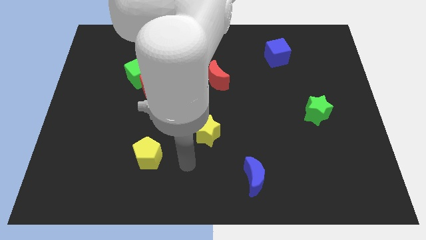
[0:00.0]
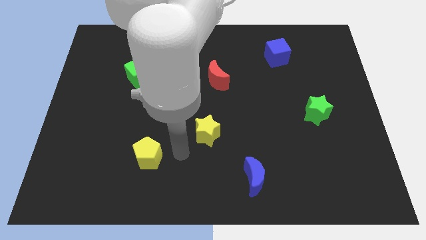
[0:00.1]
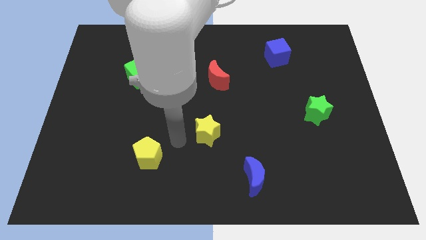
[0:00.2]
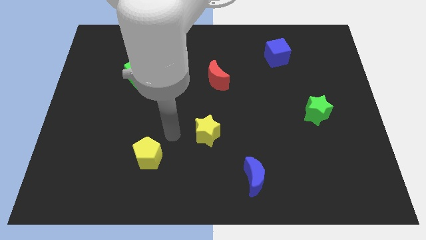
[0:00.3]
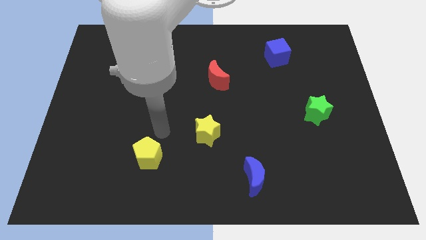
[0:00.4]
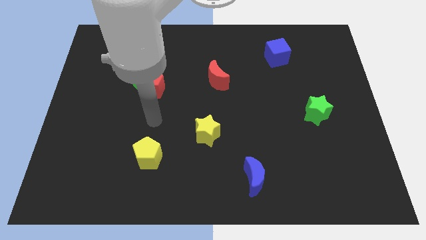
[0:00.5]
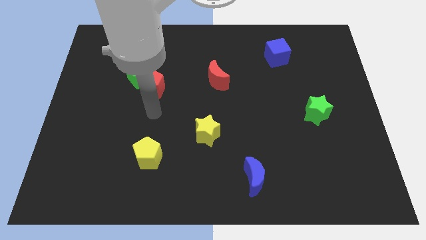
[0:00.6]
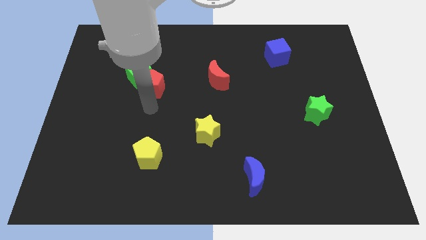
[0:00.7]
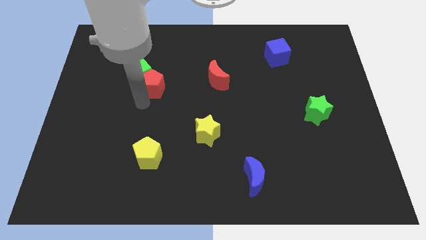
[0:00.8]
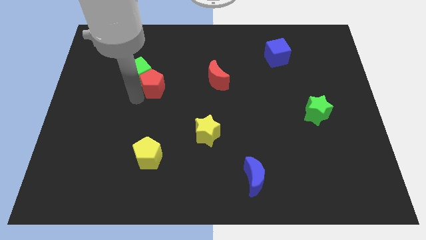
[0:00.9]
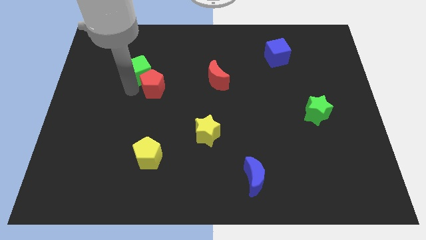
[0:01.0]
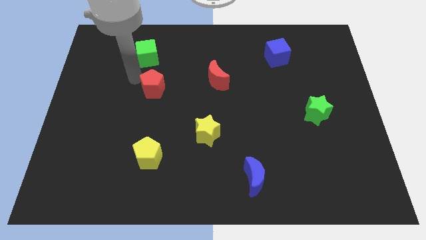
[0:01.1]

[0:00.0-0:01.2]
separate the red pentagon from the green cube

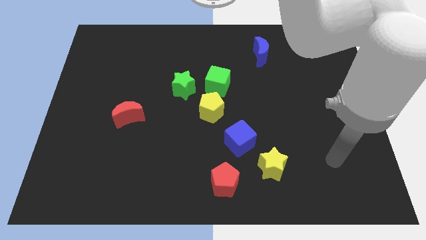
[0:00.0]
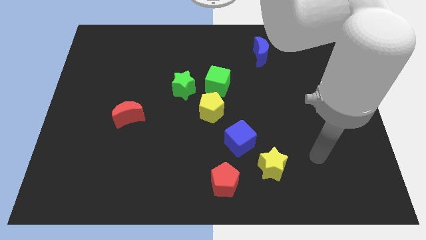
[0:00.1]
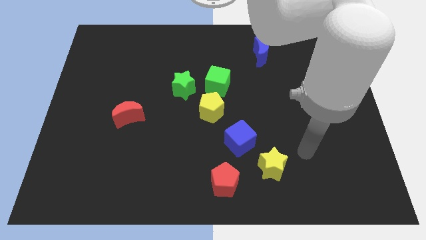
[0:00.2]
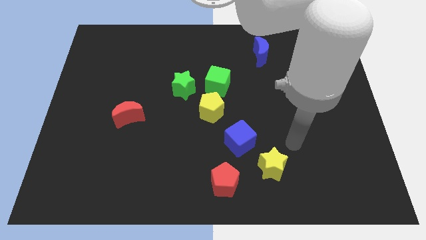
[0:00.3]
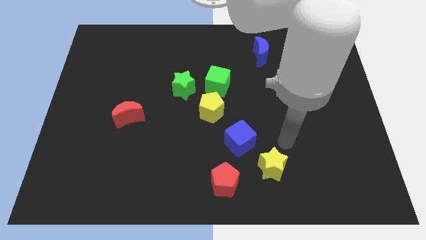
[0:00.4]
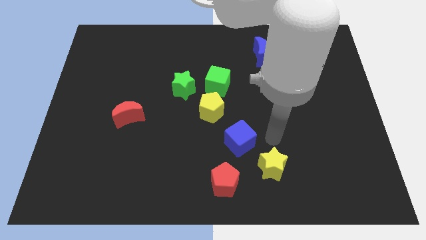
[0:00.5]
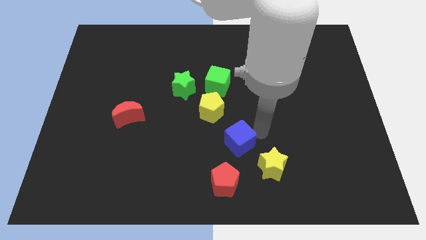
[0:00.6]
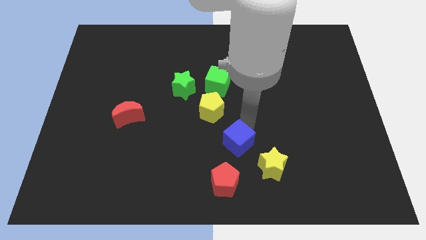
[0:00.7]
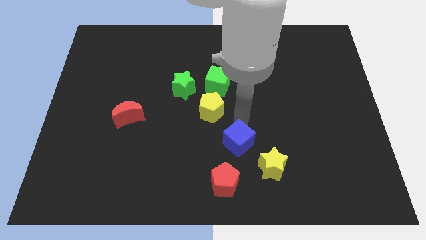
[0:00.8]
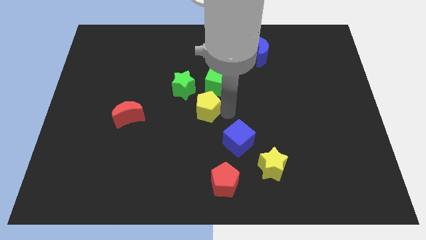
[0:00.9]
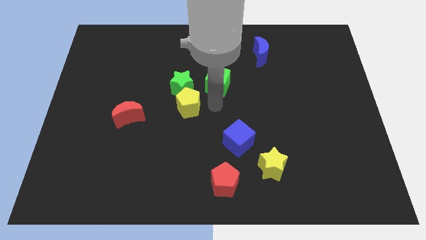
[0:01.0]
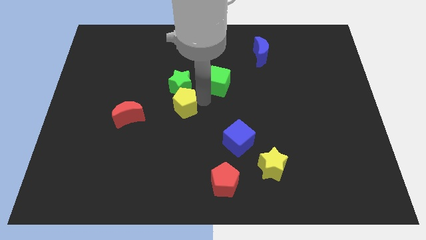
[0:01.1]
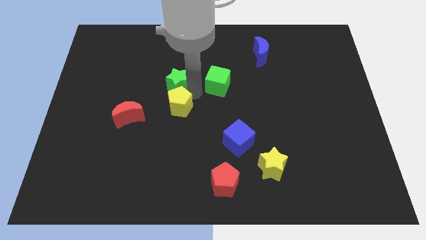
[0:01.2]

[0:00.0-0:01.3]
separate the green cube from the green star and yellow pentagon

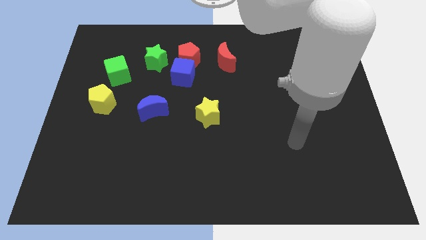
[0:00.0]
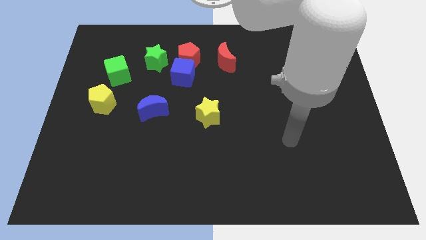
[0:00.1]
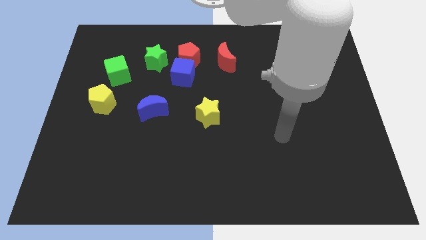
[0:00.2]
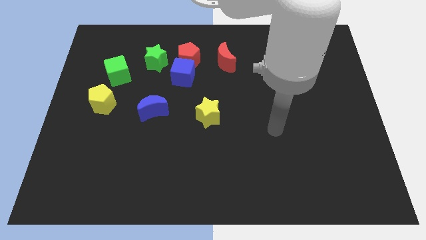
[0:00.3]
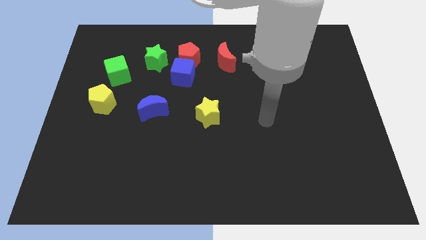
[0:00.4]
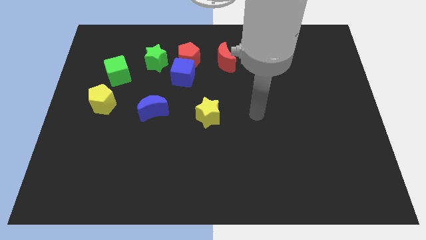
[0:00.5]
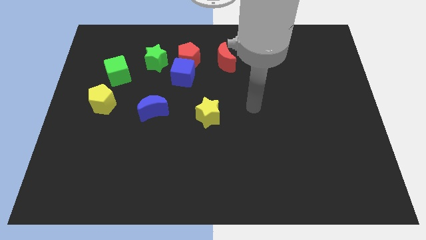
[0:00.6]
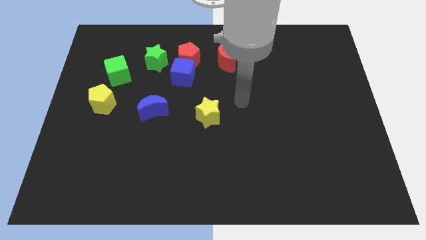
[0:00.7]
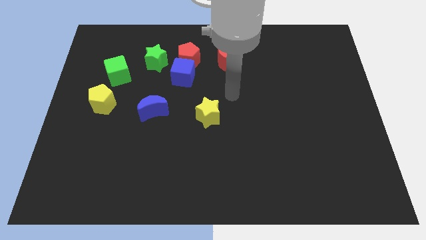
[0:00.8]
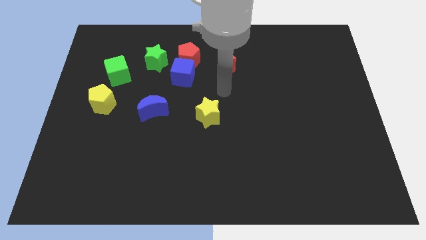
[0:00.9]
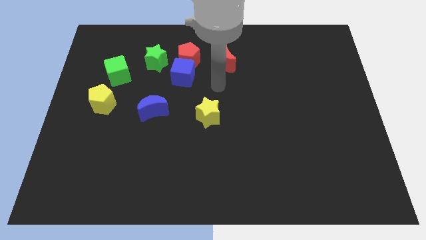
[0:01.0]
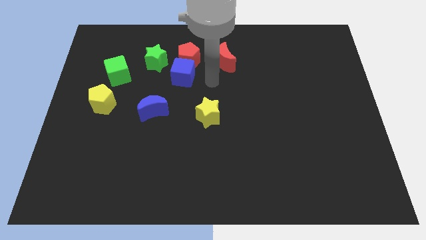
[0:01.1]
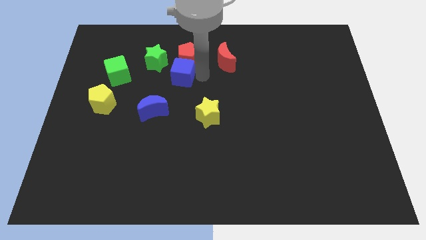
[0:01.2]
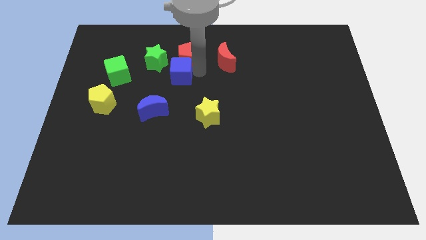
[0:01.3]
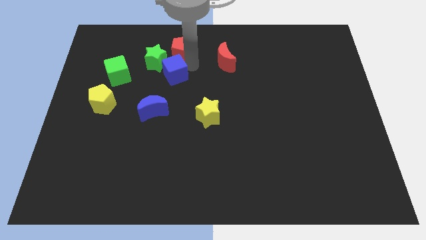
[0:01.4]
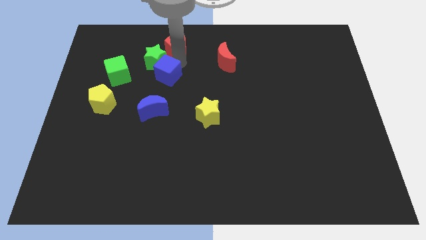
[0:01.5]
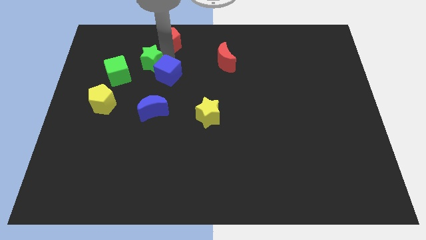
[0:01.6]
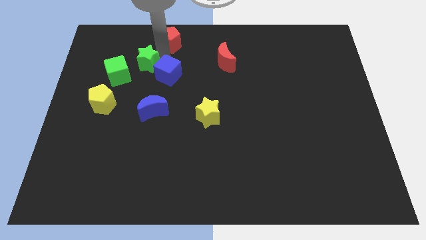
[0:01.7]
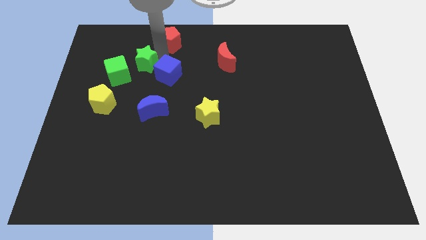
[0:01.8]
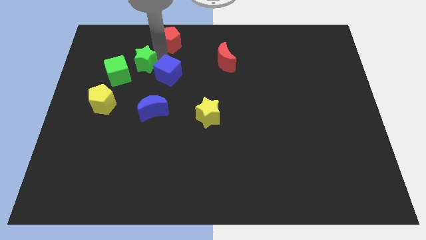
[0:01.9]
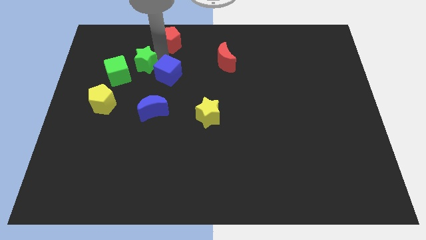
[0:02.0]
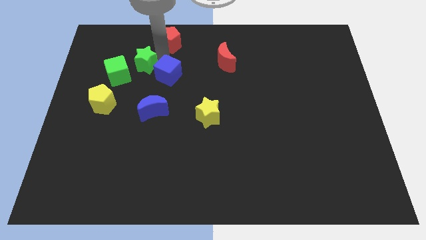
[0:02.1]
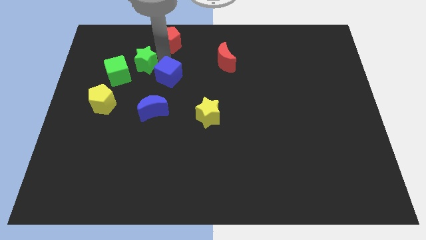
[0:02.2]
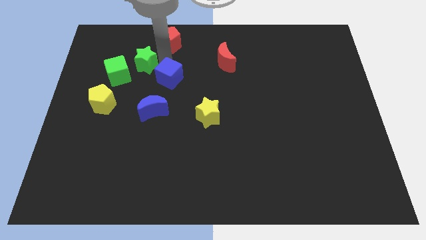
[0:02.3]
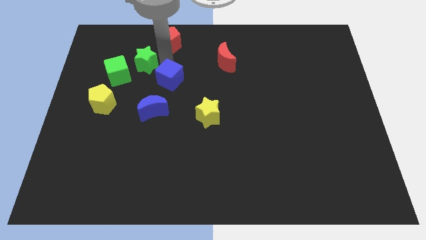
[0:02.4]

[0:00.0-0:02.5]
pull the blue cube apart from the red pentagon and green star

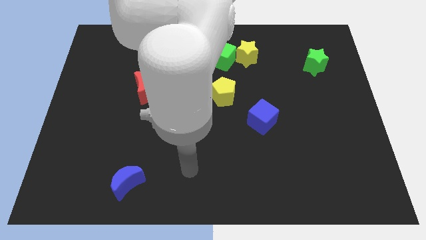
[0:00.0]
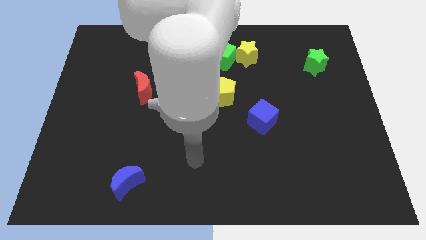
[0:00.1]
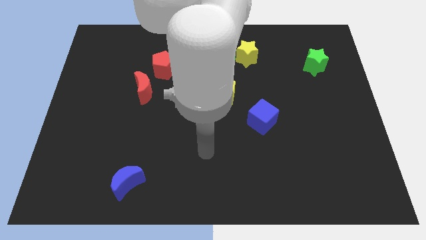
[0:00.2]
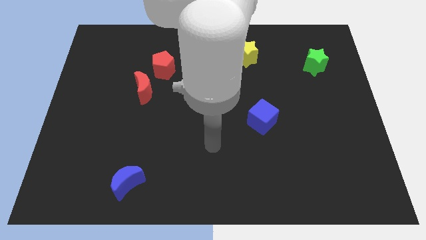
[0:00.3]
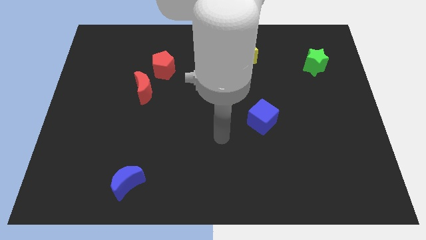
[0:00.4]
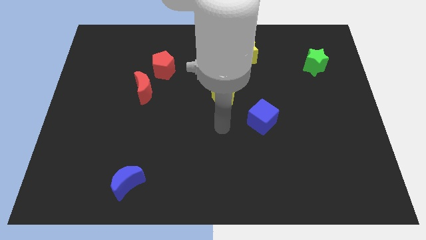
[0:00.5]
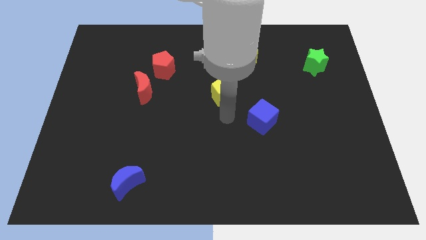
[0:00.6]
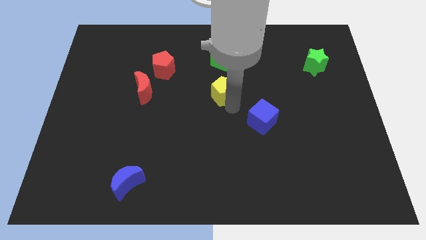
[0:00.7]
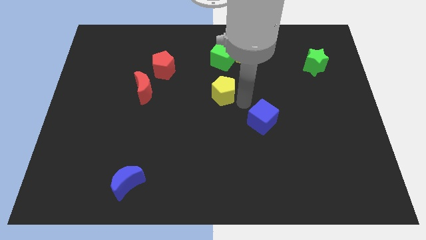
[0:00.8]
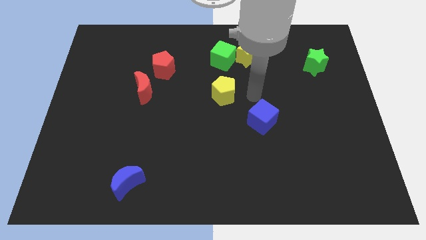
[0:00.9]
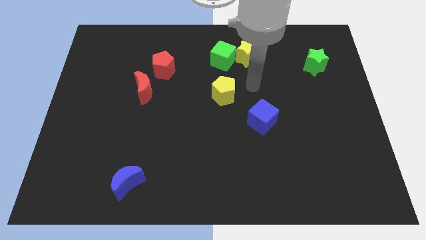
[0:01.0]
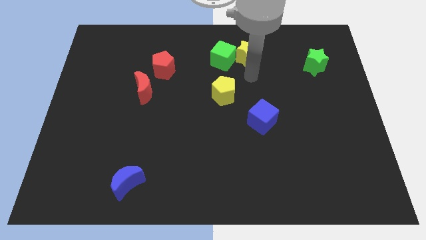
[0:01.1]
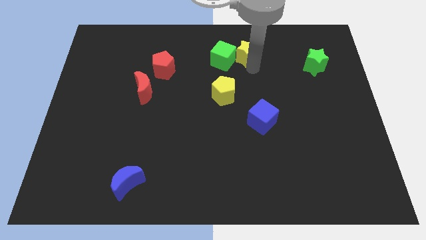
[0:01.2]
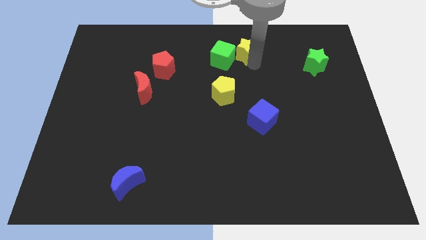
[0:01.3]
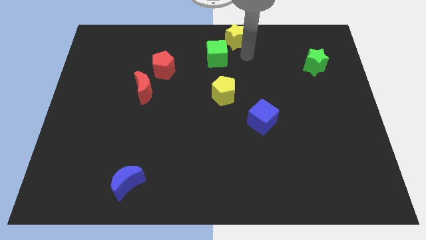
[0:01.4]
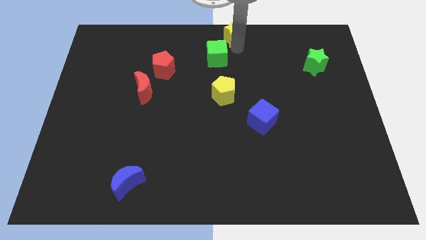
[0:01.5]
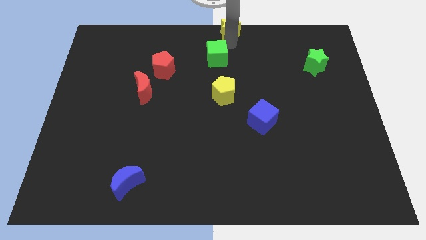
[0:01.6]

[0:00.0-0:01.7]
pull the green cube apart from the yellow star

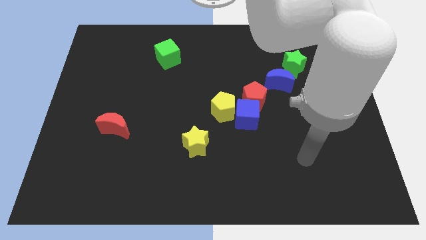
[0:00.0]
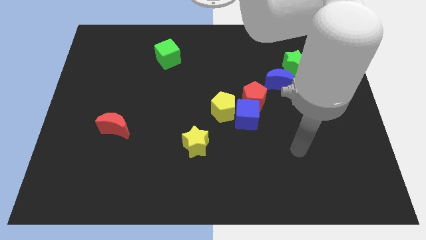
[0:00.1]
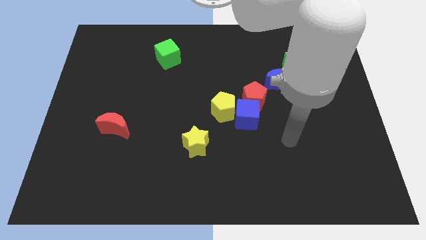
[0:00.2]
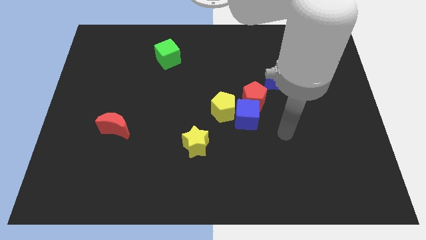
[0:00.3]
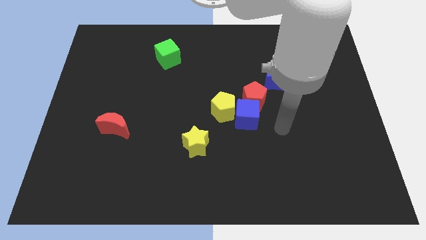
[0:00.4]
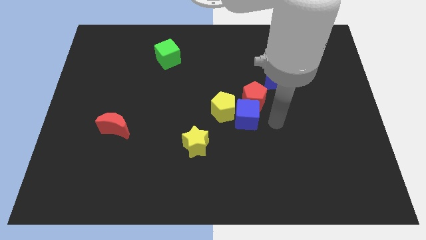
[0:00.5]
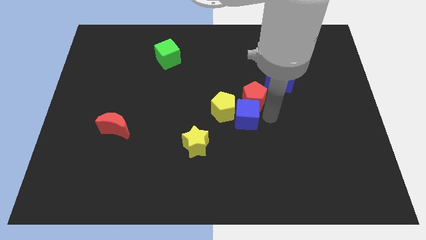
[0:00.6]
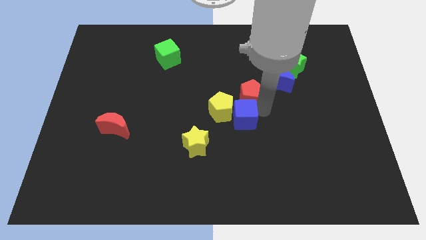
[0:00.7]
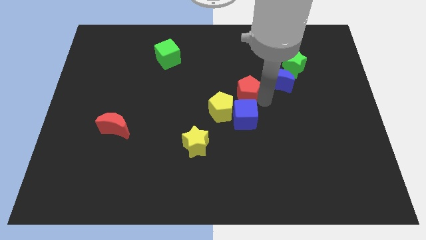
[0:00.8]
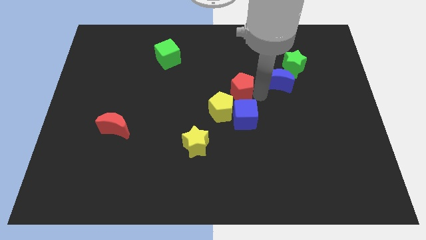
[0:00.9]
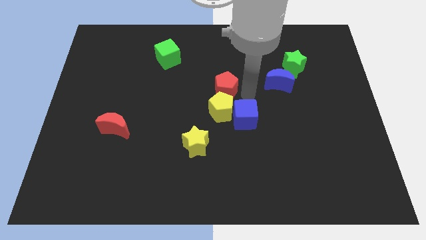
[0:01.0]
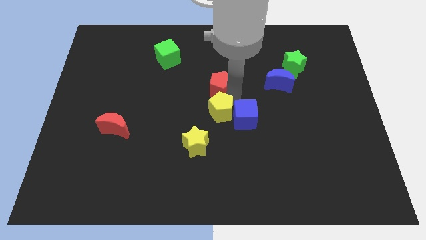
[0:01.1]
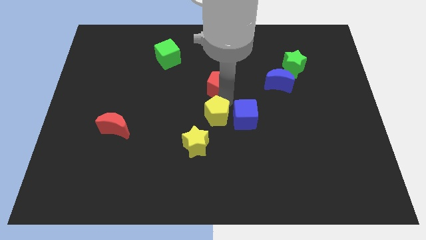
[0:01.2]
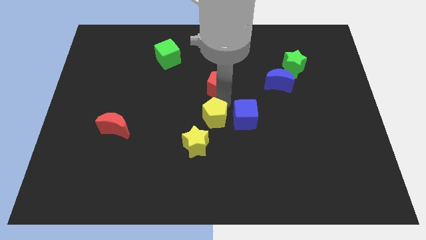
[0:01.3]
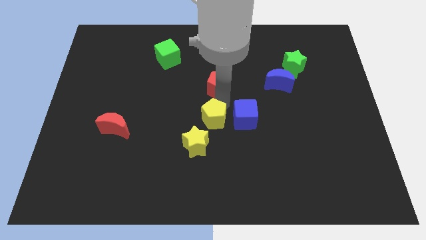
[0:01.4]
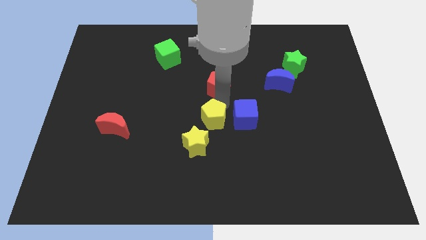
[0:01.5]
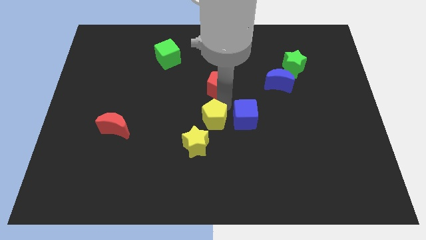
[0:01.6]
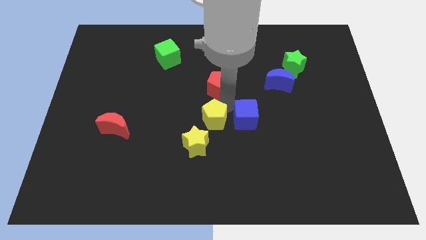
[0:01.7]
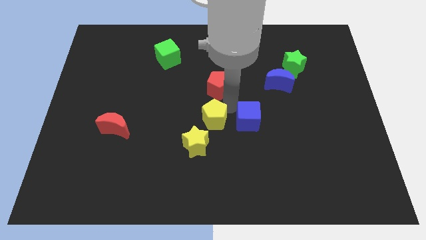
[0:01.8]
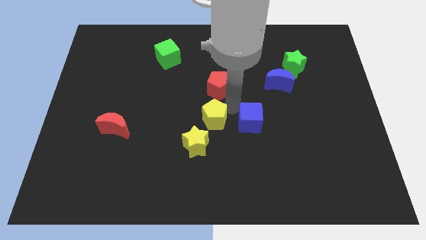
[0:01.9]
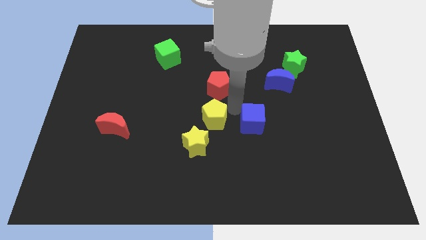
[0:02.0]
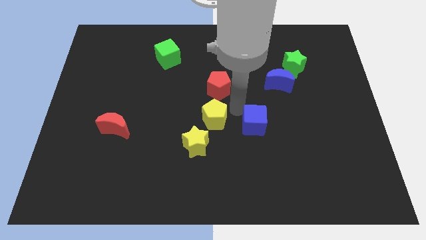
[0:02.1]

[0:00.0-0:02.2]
move the blue cube away from the red pentagon and yellow pentagon

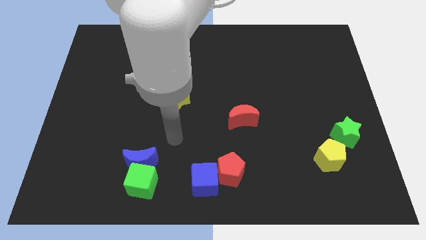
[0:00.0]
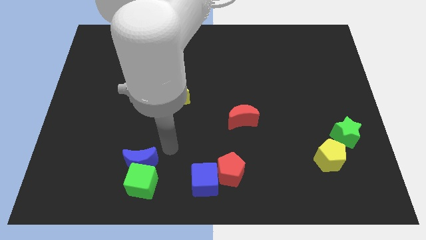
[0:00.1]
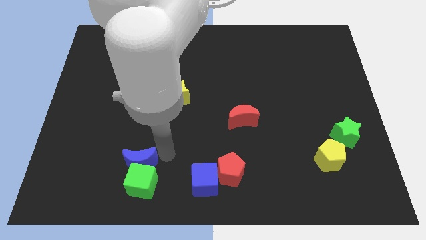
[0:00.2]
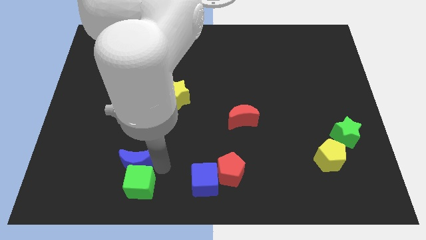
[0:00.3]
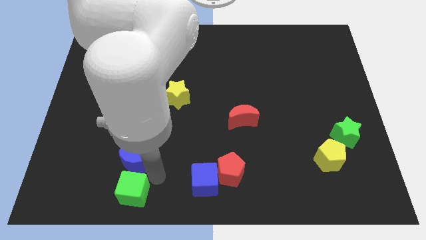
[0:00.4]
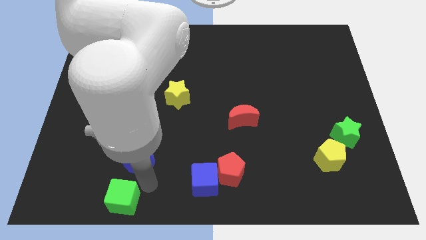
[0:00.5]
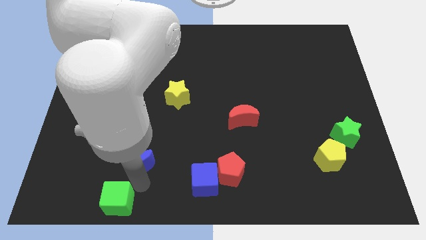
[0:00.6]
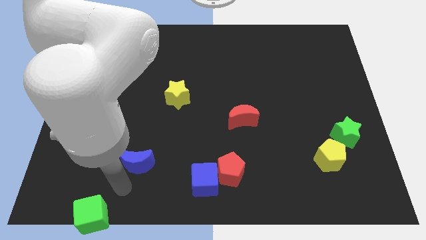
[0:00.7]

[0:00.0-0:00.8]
separate the blue moon from the green cube
